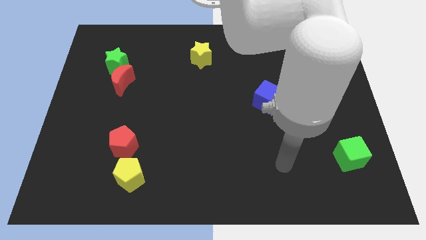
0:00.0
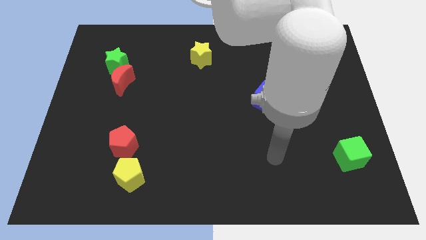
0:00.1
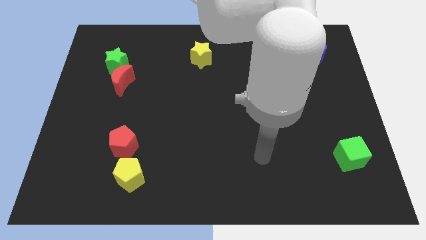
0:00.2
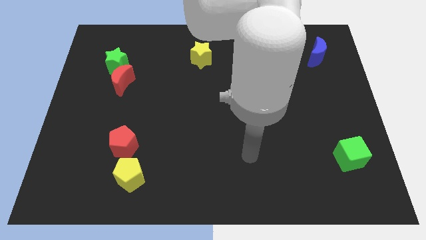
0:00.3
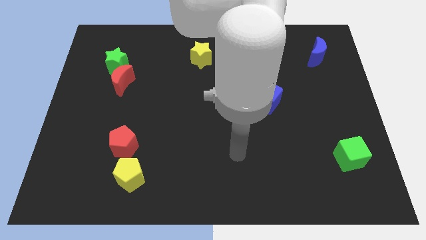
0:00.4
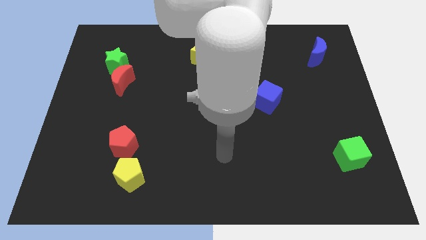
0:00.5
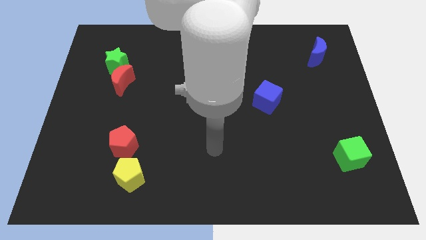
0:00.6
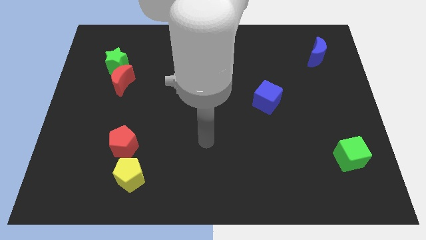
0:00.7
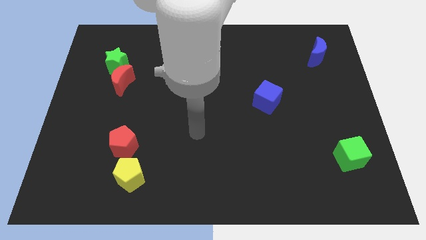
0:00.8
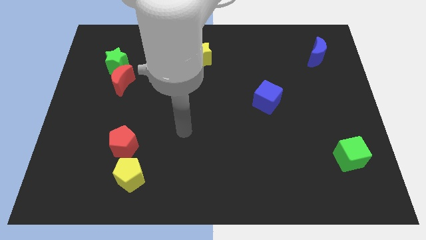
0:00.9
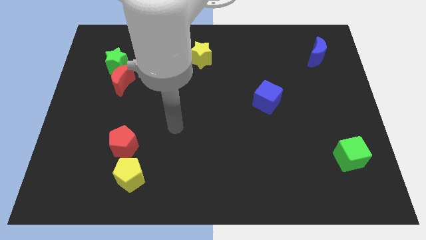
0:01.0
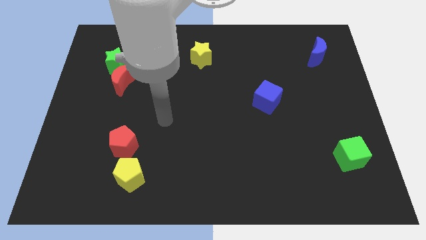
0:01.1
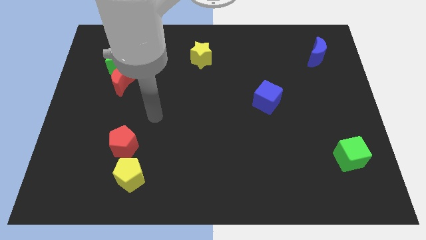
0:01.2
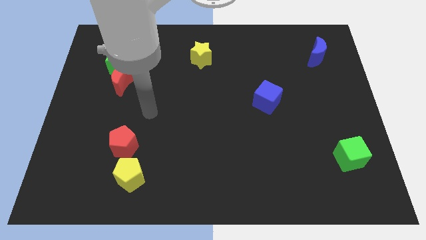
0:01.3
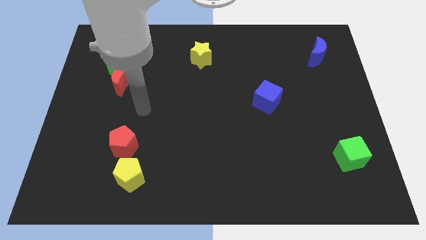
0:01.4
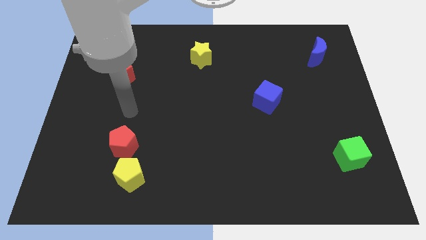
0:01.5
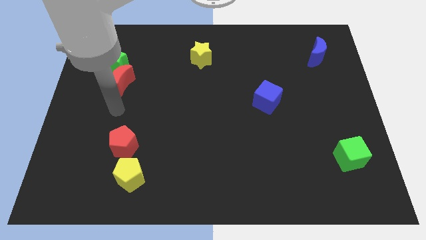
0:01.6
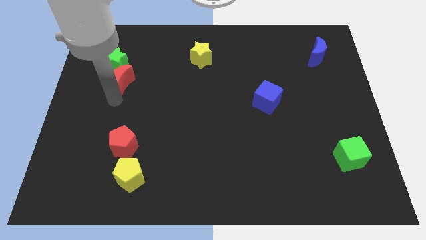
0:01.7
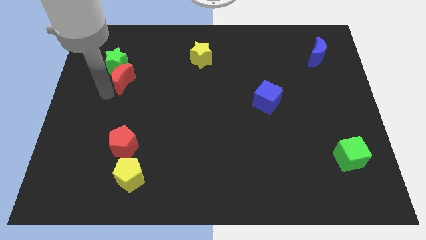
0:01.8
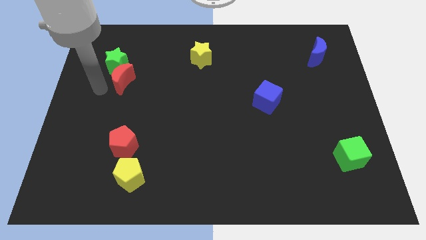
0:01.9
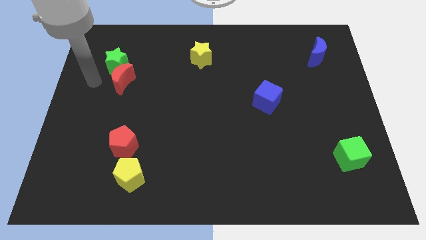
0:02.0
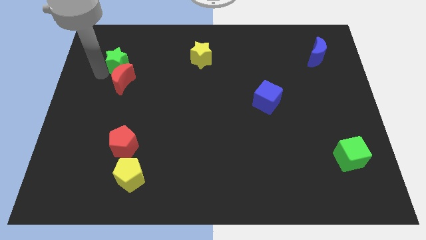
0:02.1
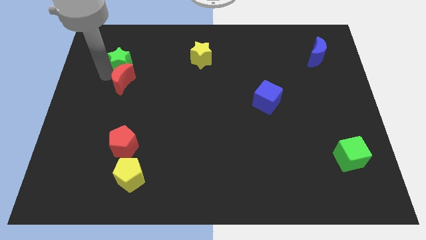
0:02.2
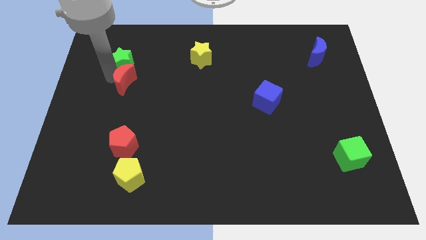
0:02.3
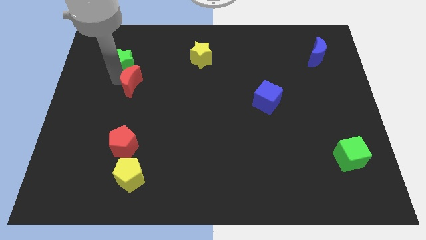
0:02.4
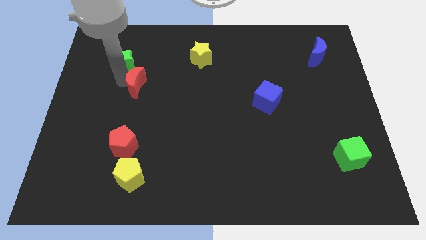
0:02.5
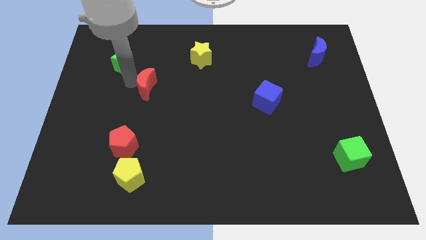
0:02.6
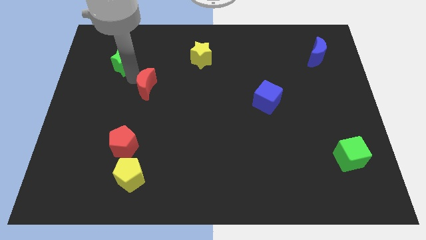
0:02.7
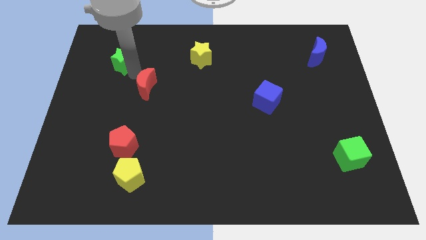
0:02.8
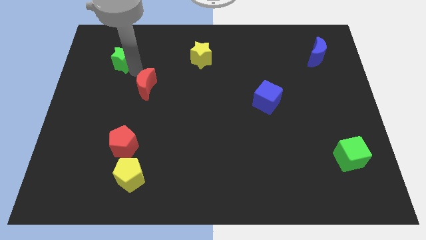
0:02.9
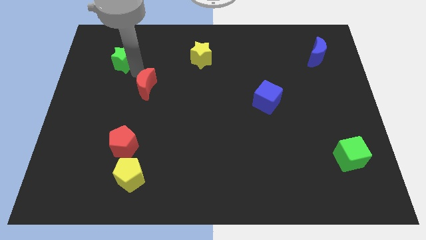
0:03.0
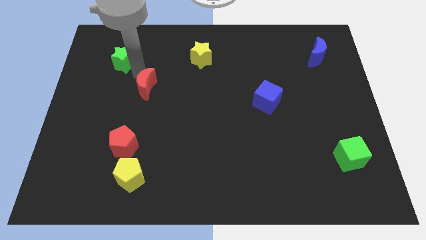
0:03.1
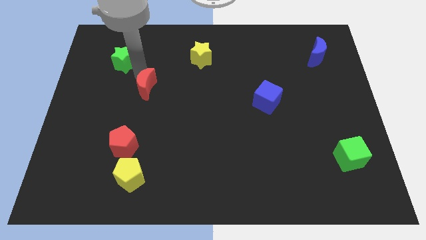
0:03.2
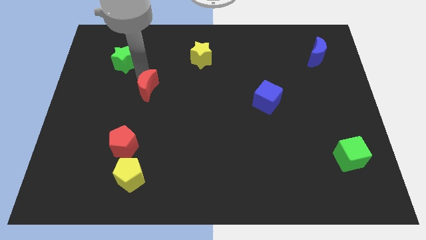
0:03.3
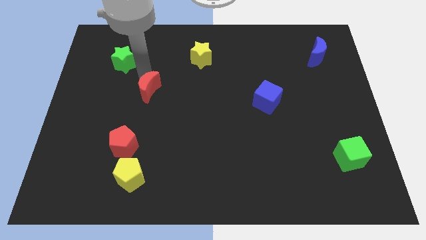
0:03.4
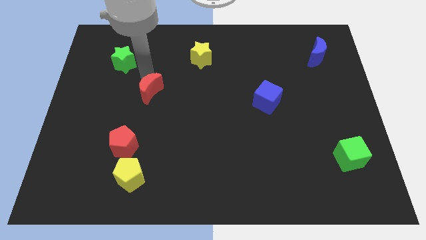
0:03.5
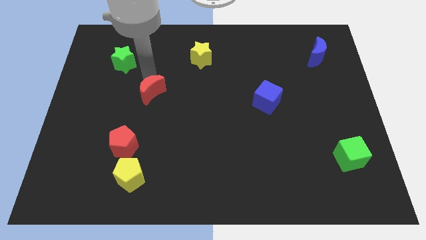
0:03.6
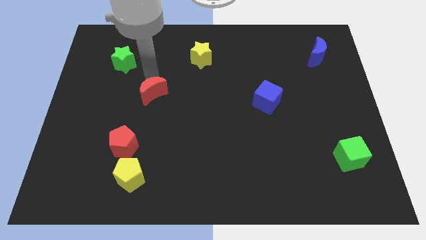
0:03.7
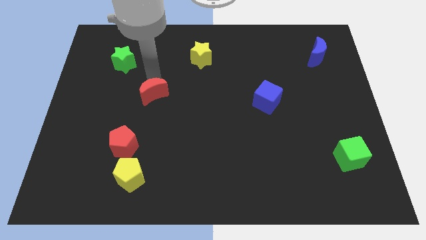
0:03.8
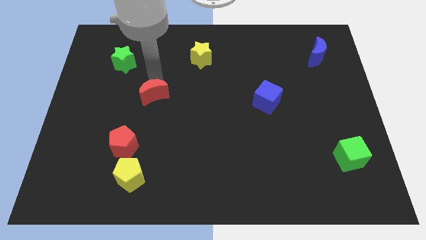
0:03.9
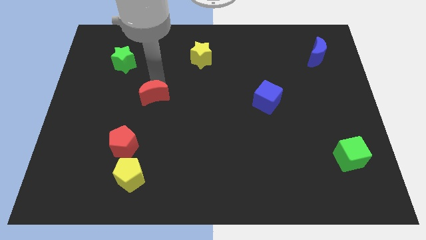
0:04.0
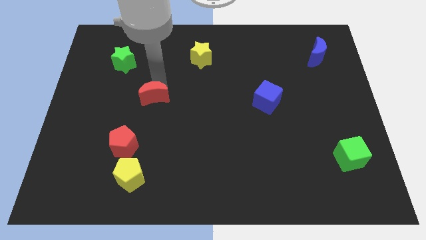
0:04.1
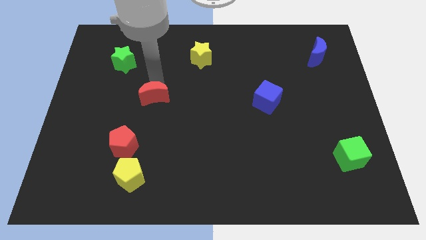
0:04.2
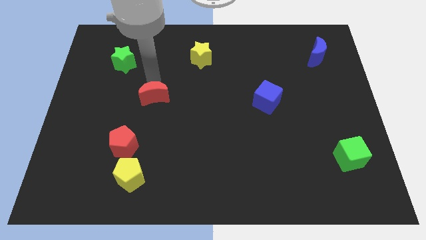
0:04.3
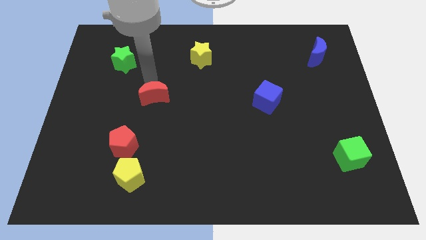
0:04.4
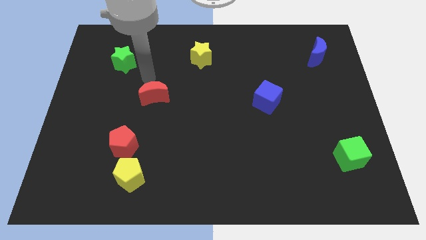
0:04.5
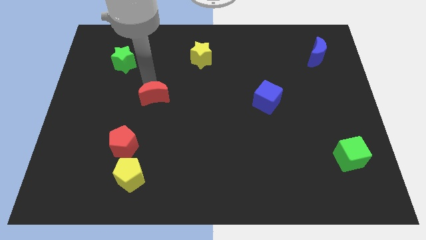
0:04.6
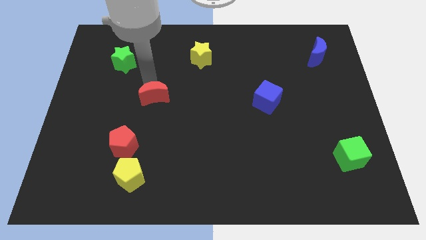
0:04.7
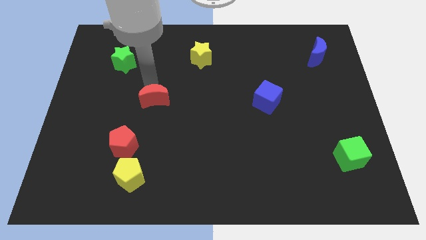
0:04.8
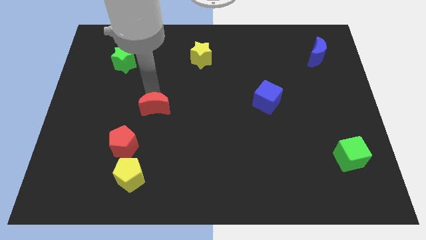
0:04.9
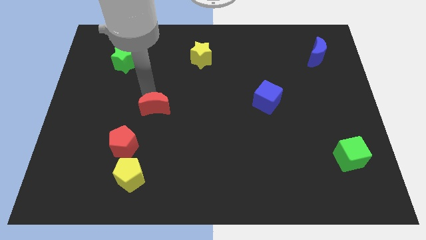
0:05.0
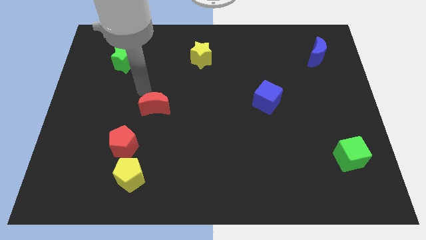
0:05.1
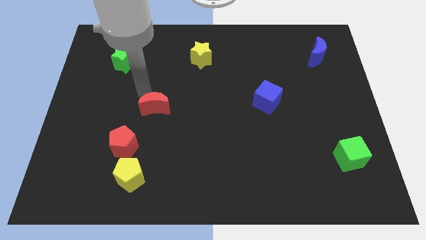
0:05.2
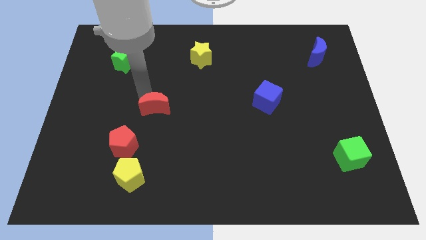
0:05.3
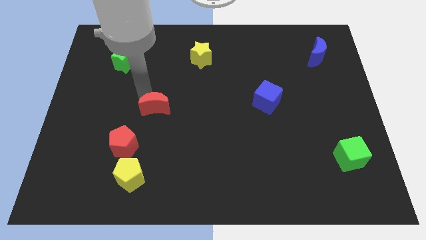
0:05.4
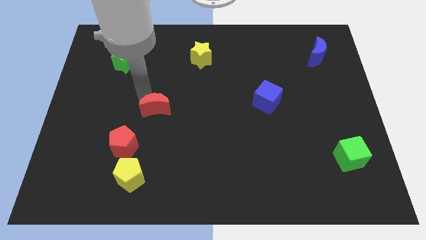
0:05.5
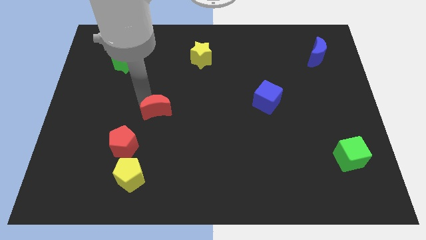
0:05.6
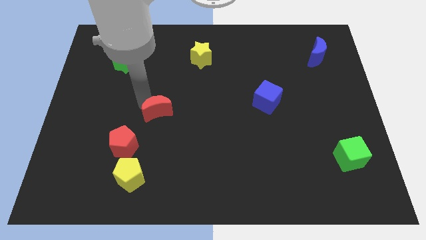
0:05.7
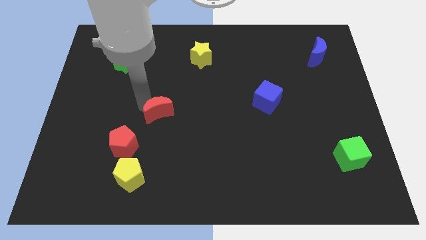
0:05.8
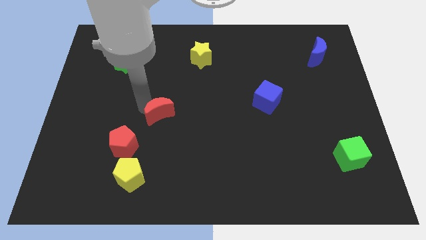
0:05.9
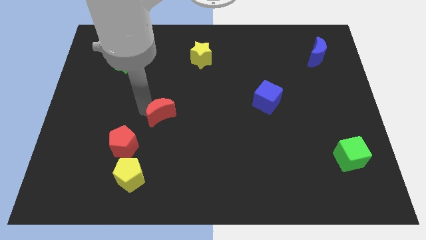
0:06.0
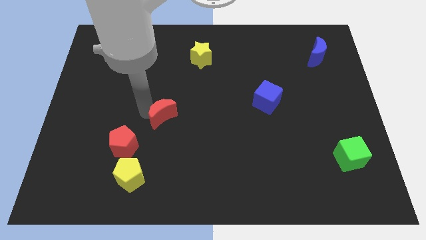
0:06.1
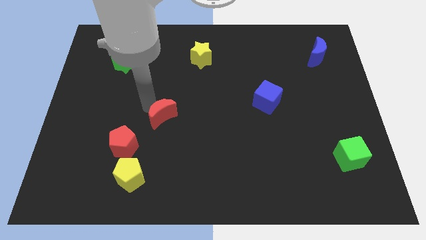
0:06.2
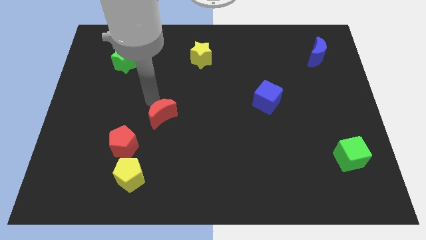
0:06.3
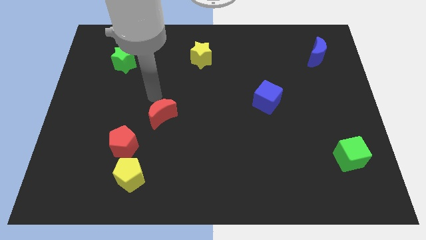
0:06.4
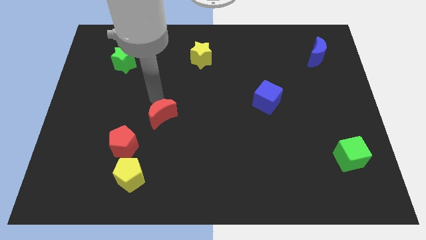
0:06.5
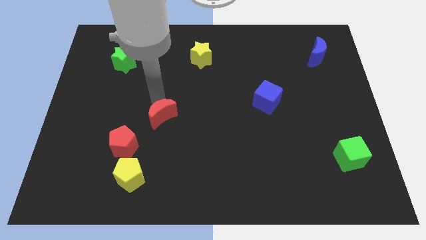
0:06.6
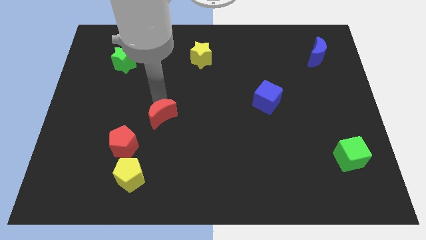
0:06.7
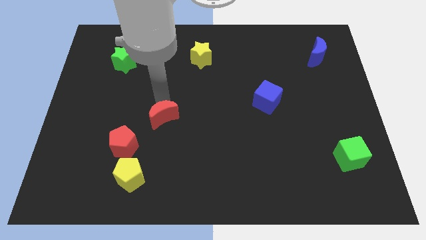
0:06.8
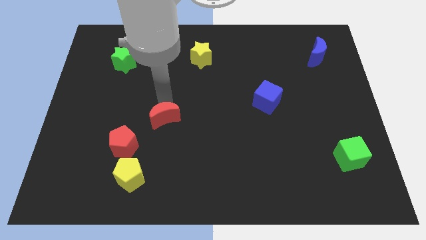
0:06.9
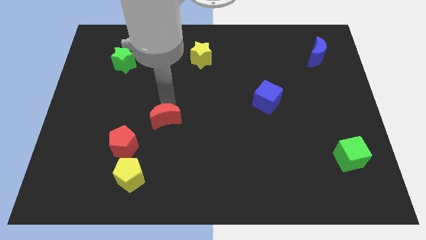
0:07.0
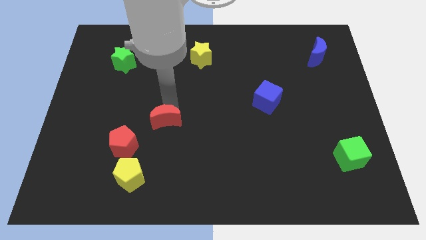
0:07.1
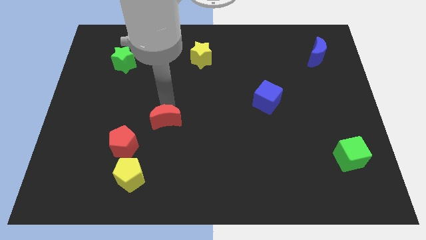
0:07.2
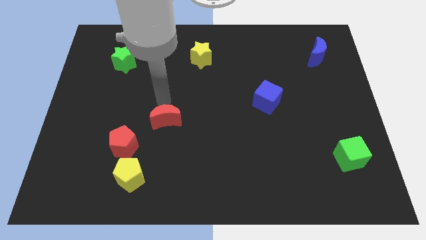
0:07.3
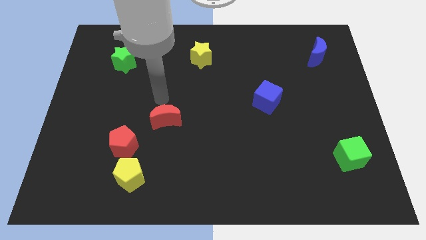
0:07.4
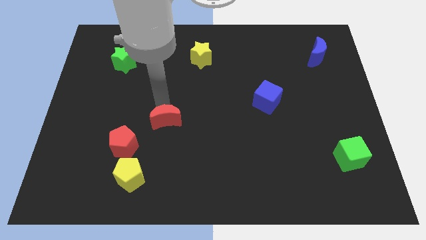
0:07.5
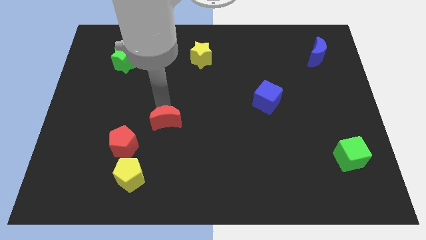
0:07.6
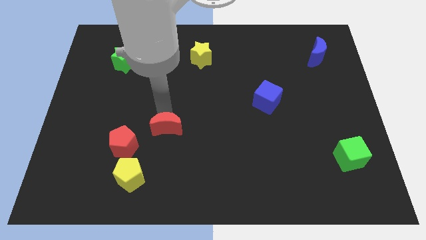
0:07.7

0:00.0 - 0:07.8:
slide the red moon right of the red pentagon
